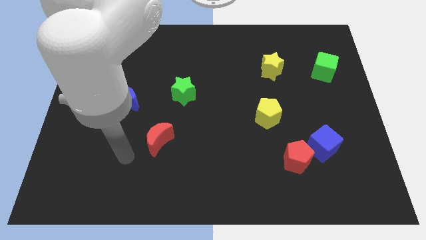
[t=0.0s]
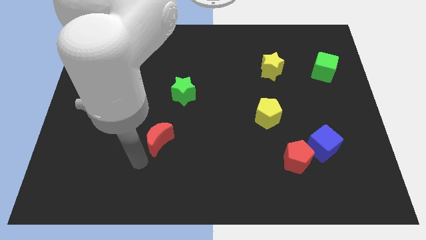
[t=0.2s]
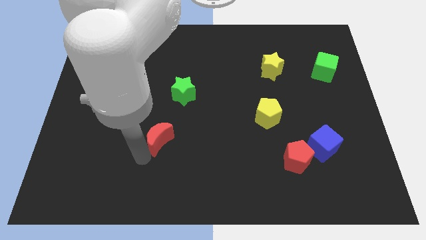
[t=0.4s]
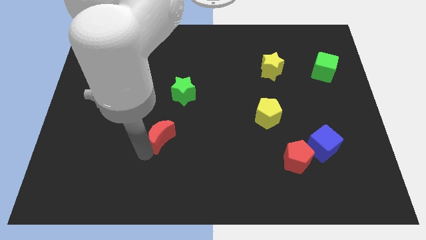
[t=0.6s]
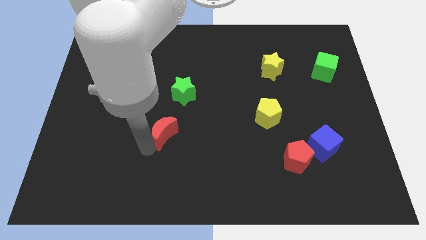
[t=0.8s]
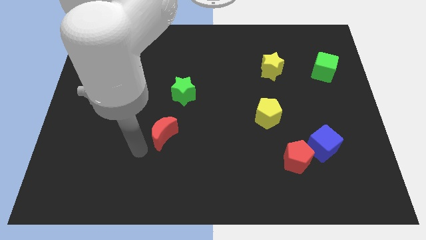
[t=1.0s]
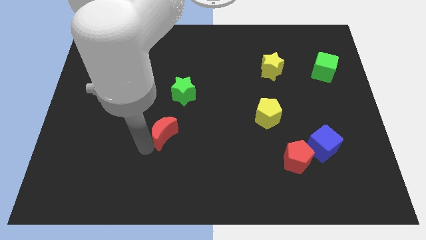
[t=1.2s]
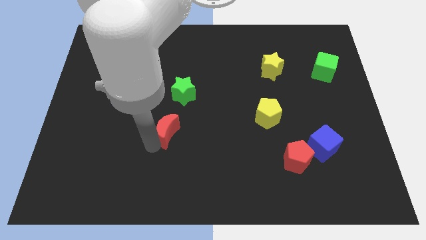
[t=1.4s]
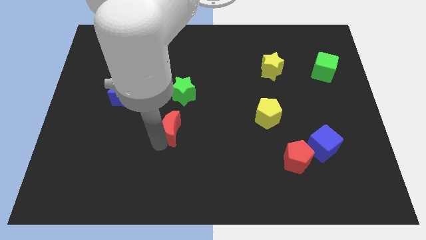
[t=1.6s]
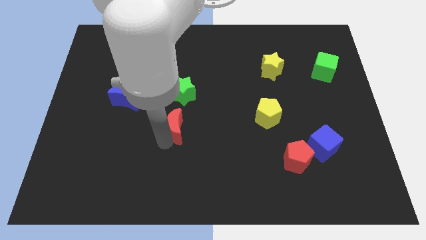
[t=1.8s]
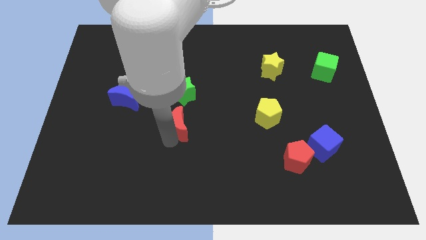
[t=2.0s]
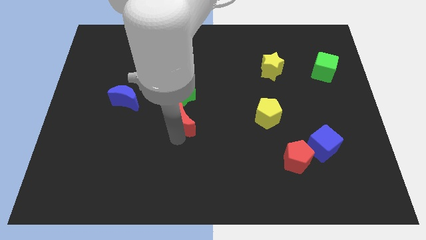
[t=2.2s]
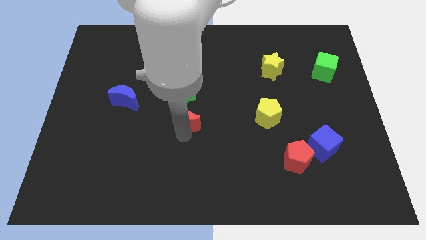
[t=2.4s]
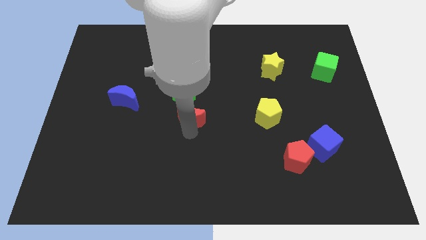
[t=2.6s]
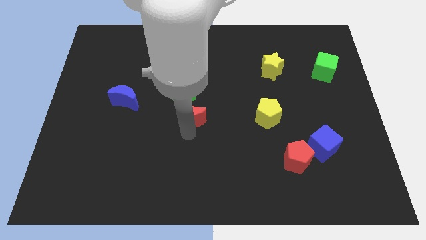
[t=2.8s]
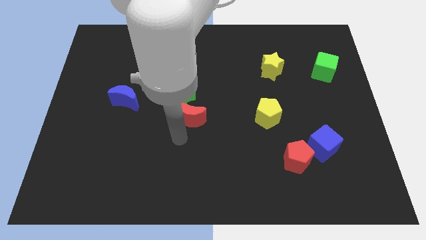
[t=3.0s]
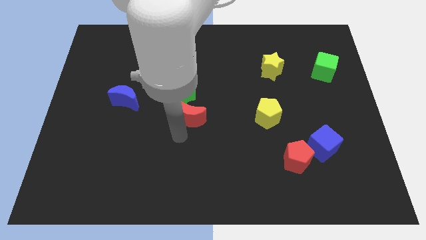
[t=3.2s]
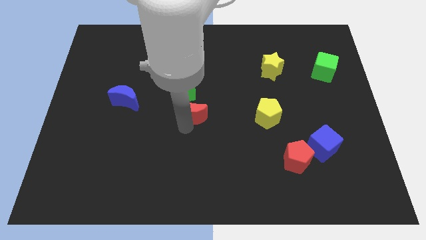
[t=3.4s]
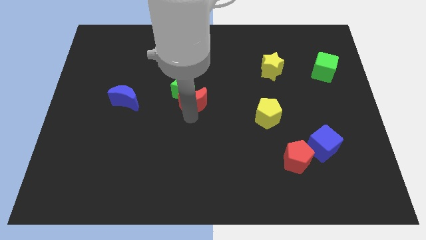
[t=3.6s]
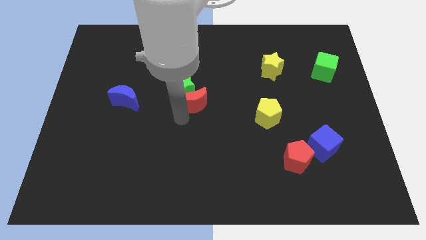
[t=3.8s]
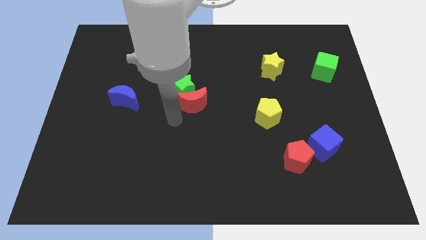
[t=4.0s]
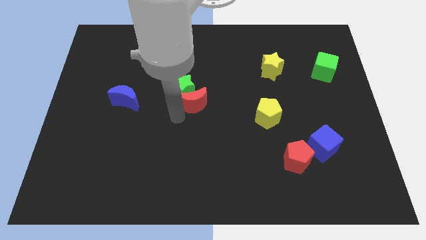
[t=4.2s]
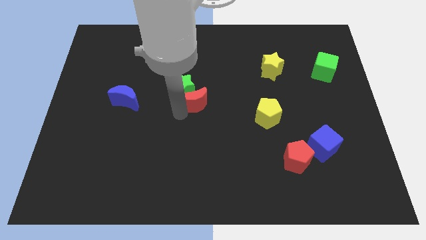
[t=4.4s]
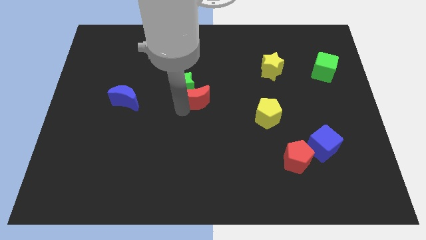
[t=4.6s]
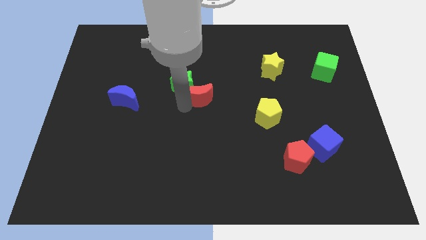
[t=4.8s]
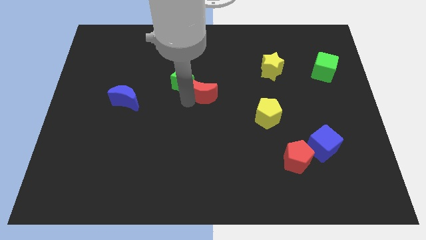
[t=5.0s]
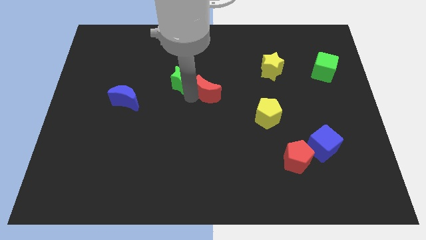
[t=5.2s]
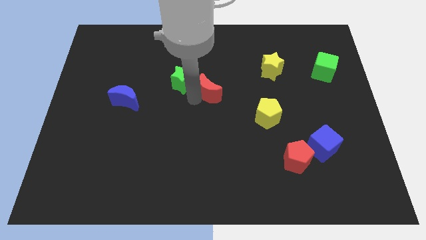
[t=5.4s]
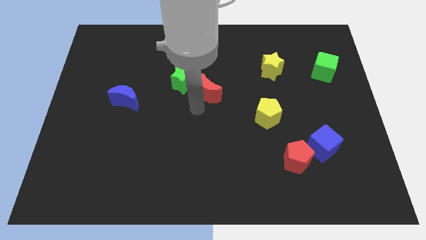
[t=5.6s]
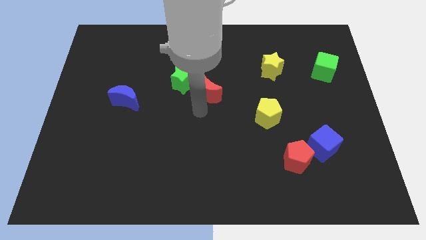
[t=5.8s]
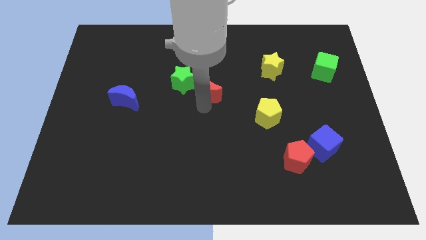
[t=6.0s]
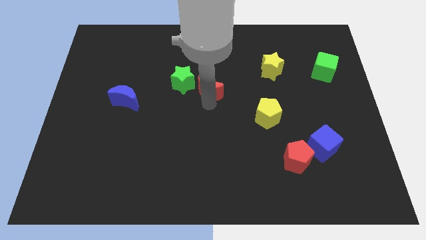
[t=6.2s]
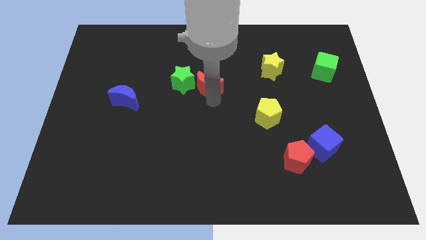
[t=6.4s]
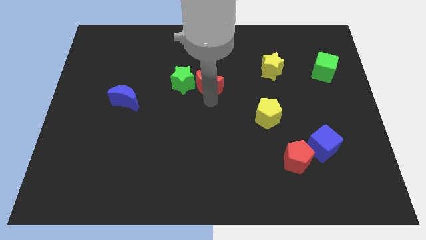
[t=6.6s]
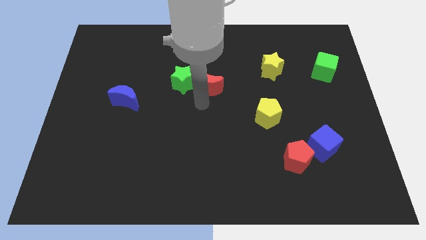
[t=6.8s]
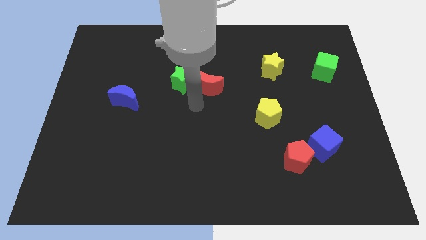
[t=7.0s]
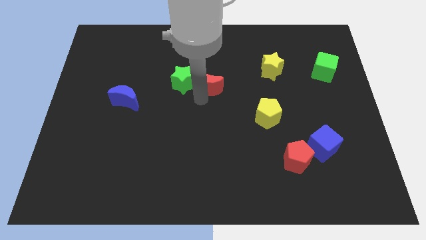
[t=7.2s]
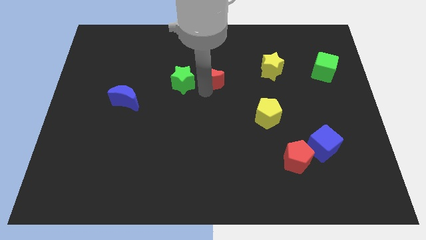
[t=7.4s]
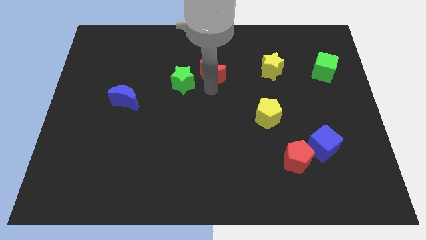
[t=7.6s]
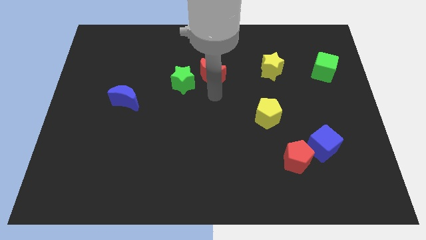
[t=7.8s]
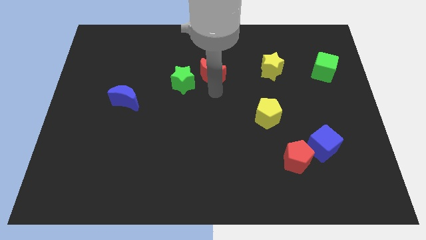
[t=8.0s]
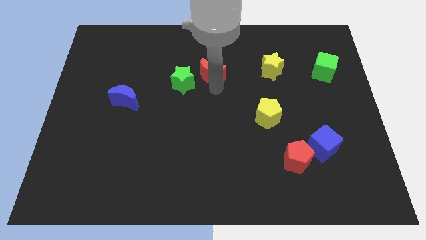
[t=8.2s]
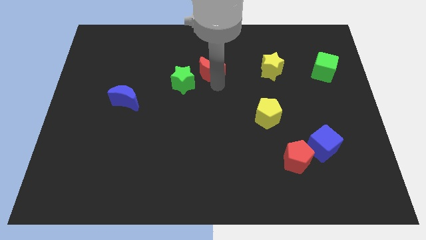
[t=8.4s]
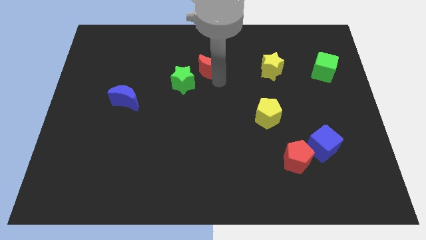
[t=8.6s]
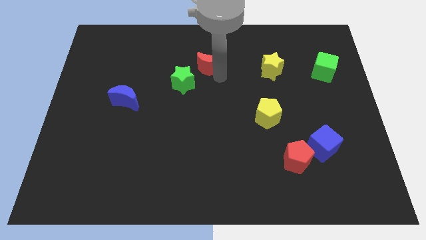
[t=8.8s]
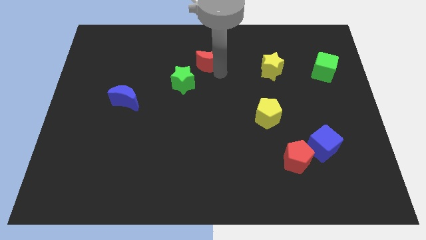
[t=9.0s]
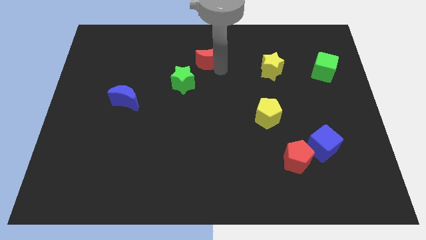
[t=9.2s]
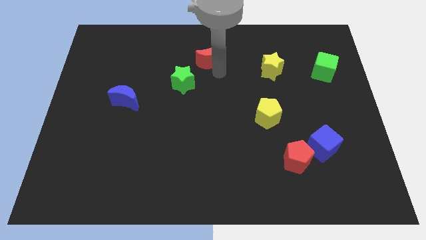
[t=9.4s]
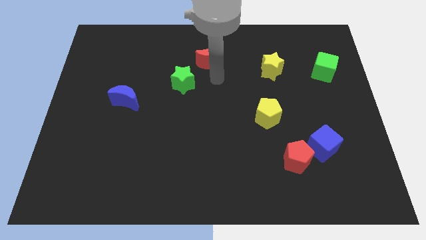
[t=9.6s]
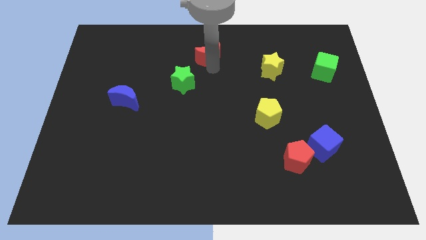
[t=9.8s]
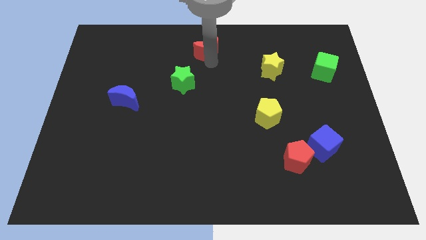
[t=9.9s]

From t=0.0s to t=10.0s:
push the red moon to the top
